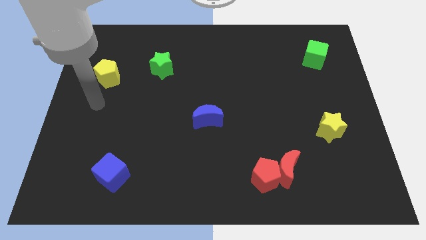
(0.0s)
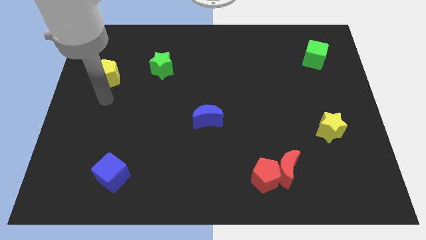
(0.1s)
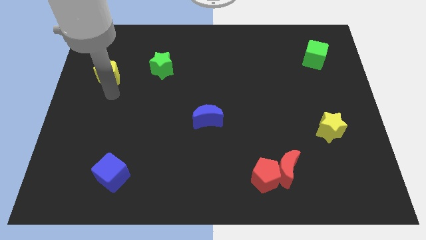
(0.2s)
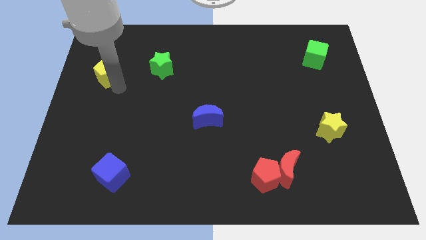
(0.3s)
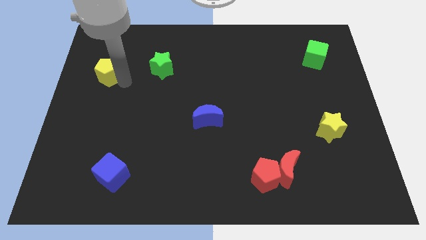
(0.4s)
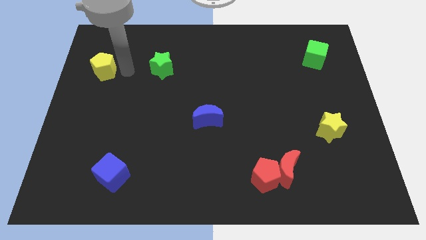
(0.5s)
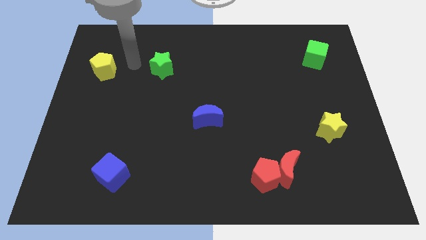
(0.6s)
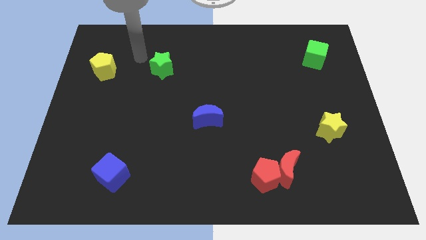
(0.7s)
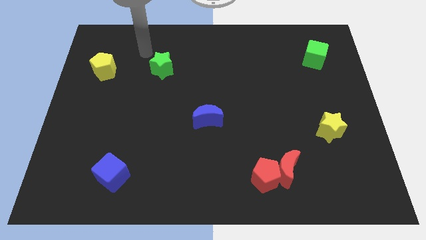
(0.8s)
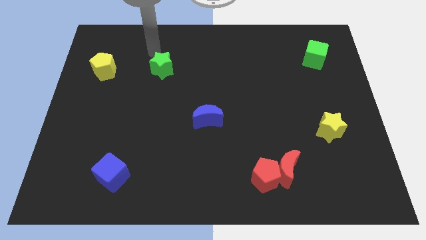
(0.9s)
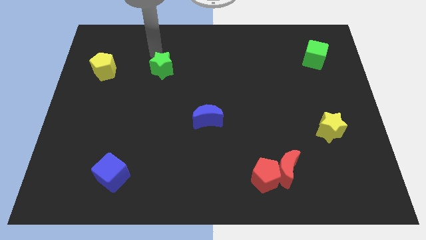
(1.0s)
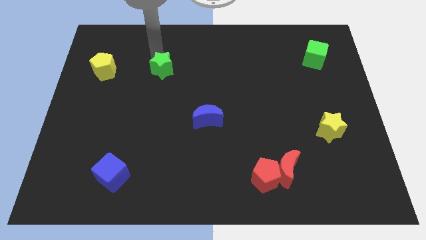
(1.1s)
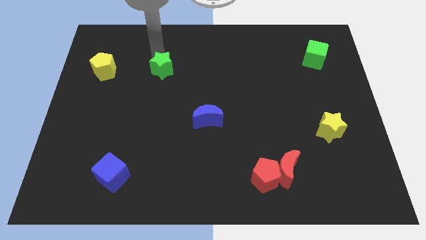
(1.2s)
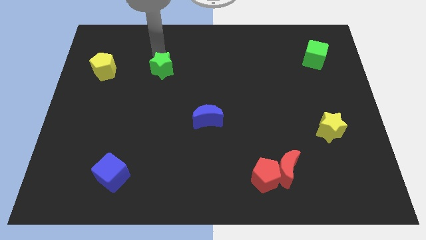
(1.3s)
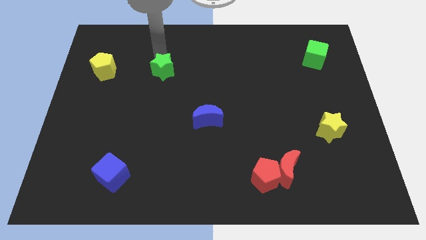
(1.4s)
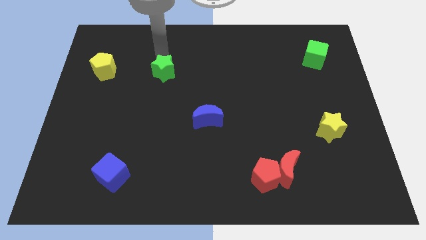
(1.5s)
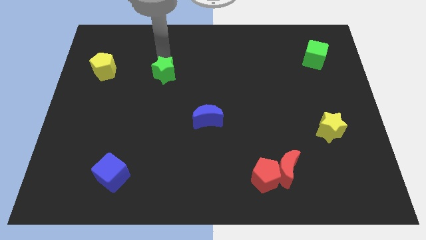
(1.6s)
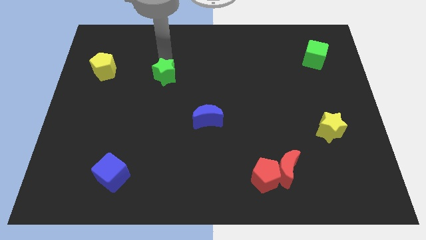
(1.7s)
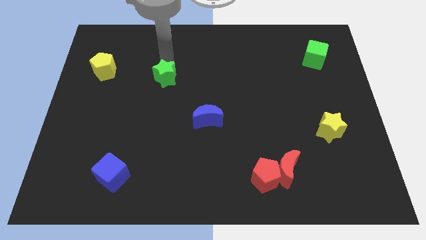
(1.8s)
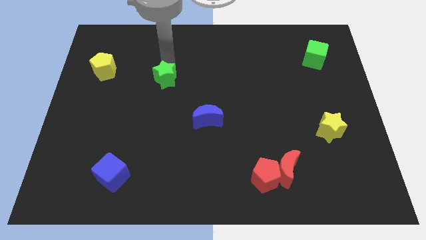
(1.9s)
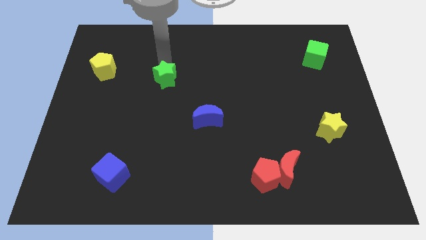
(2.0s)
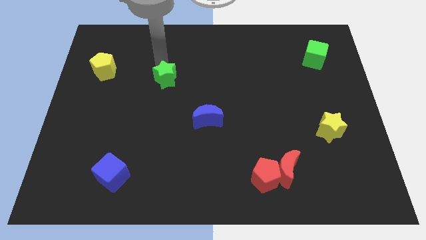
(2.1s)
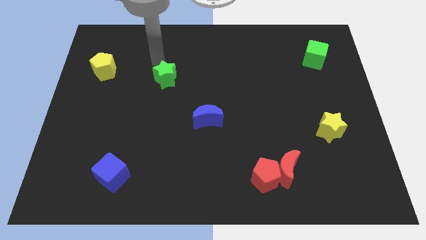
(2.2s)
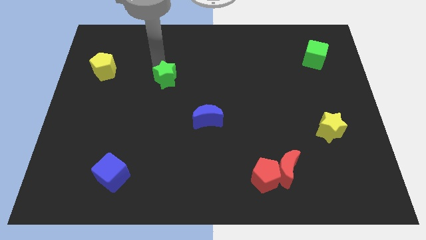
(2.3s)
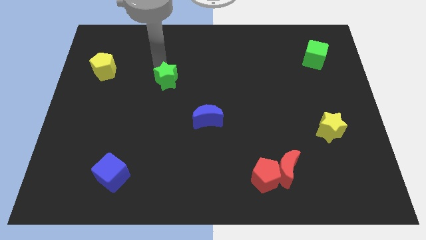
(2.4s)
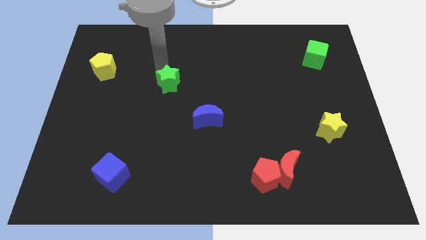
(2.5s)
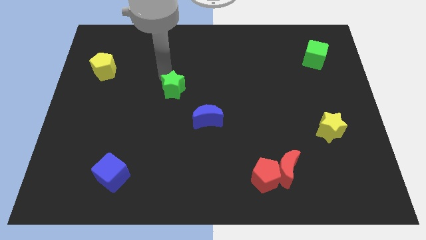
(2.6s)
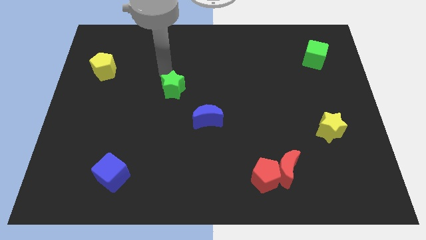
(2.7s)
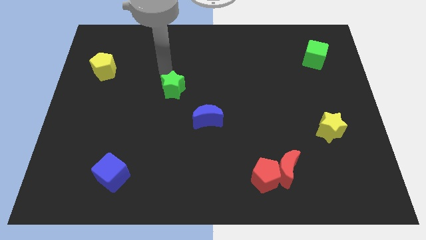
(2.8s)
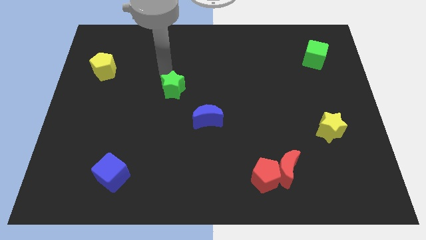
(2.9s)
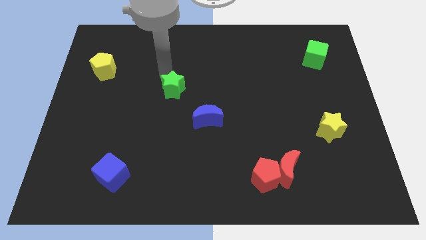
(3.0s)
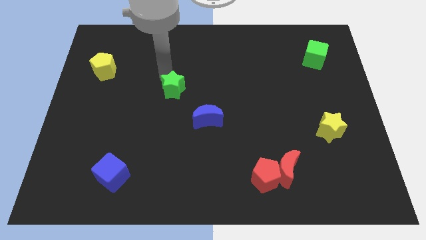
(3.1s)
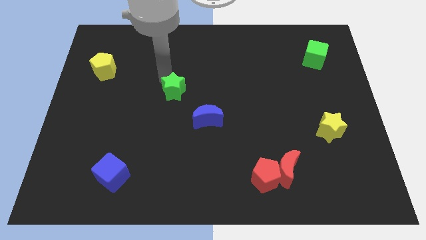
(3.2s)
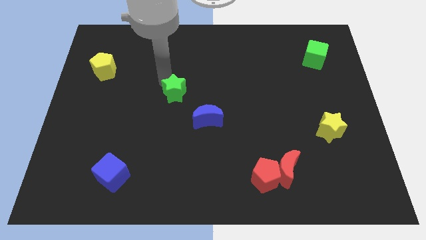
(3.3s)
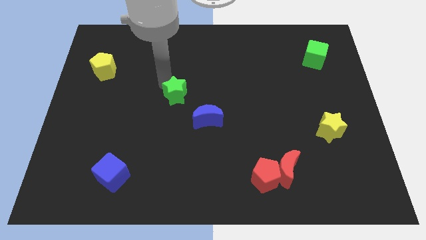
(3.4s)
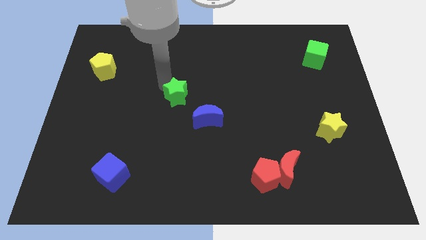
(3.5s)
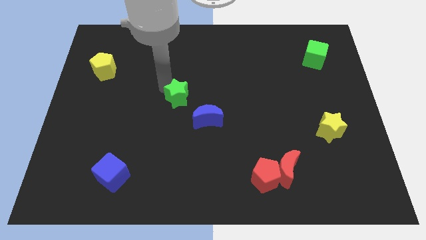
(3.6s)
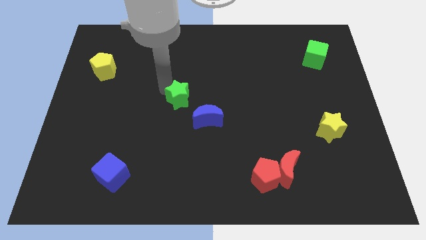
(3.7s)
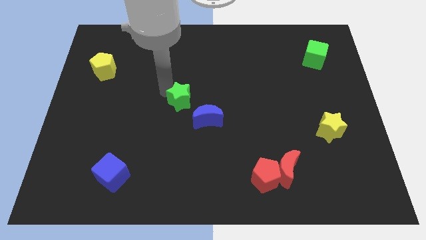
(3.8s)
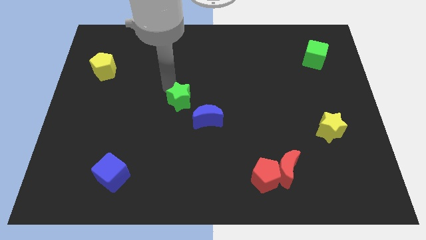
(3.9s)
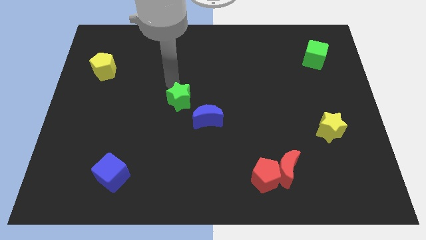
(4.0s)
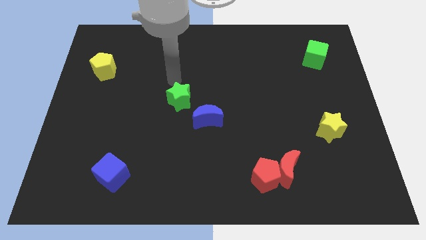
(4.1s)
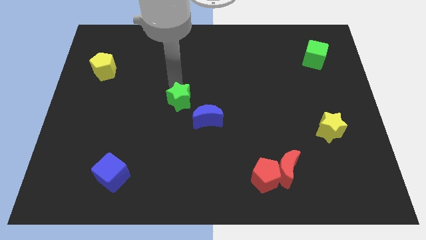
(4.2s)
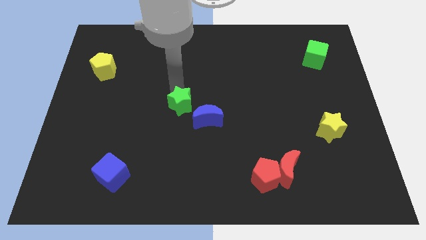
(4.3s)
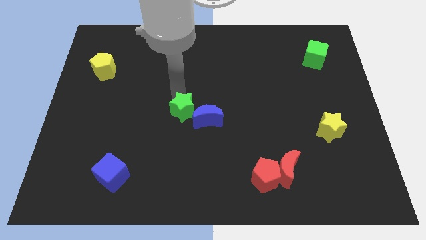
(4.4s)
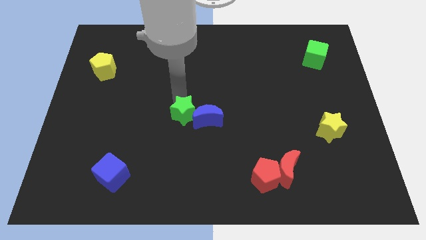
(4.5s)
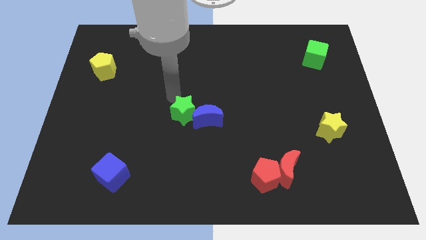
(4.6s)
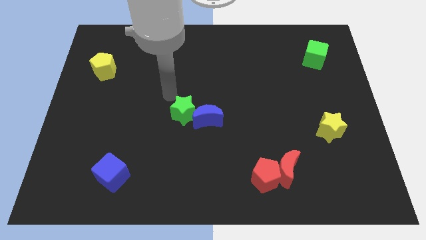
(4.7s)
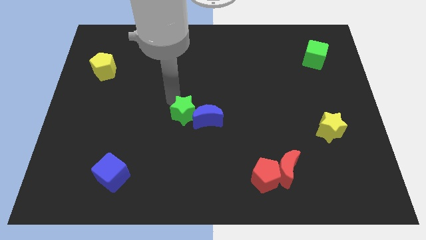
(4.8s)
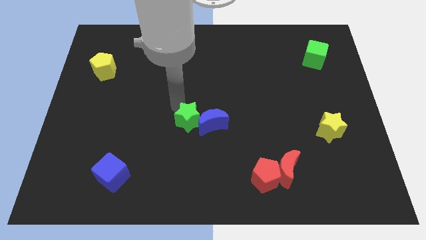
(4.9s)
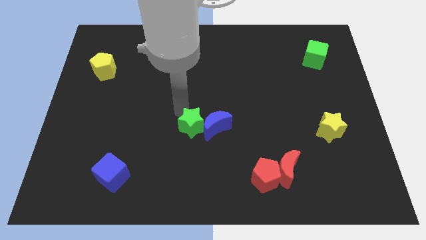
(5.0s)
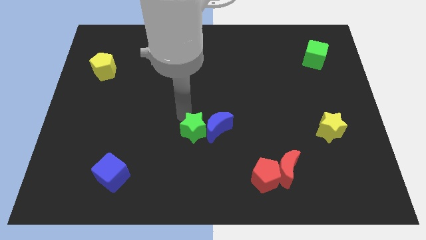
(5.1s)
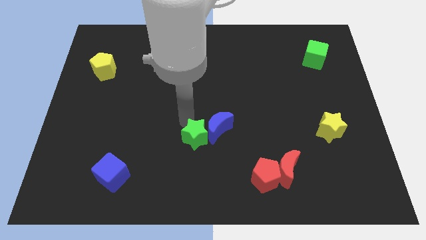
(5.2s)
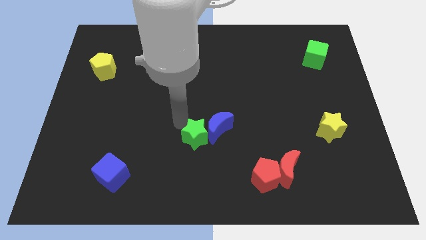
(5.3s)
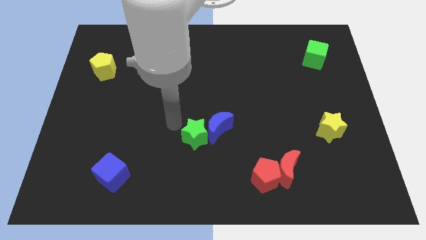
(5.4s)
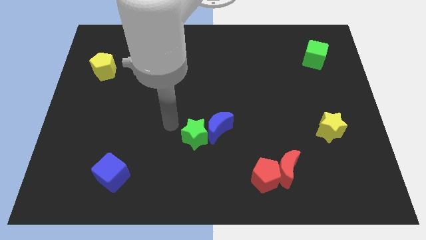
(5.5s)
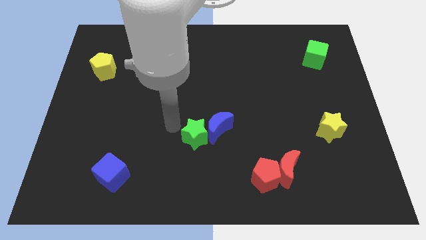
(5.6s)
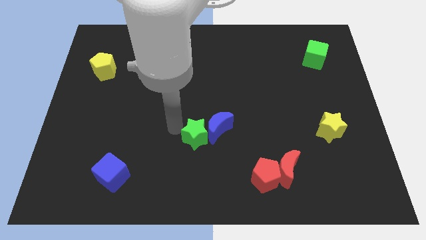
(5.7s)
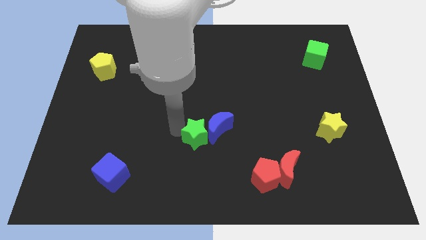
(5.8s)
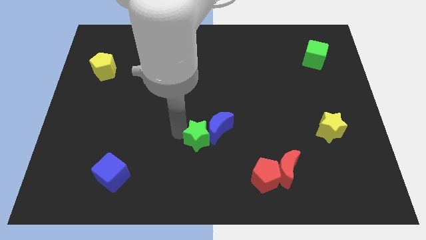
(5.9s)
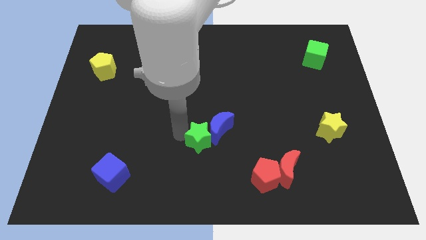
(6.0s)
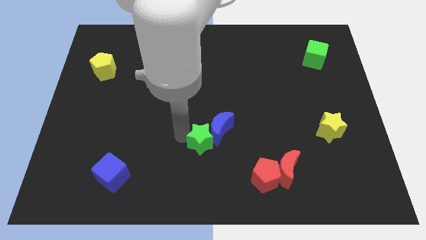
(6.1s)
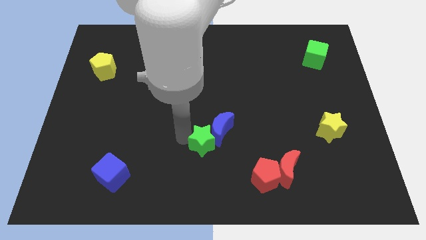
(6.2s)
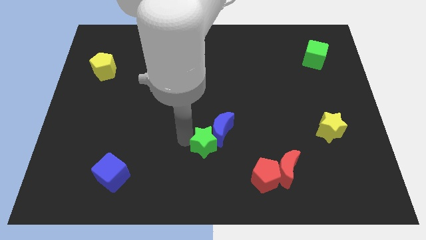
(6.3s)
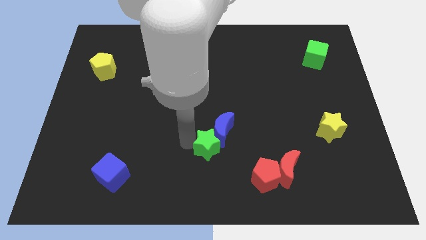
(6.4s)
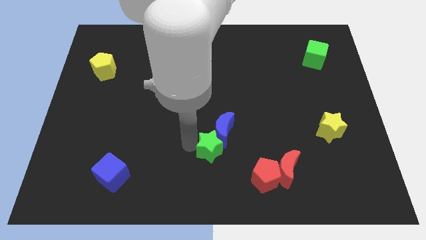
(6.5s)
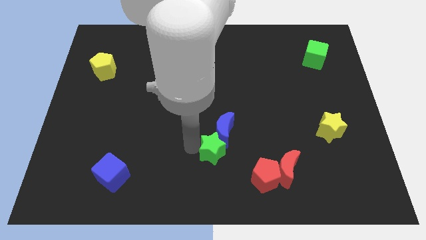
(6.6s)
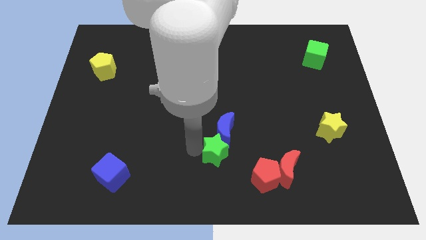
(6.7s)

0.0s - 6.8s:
move the green star to the top left side of the red pentagon

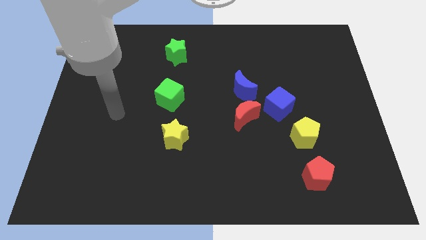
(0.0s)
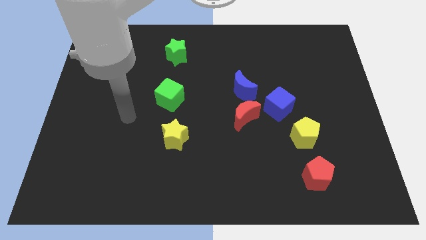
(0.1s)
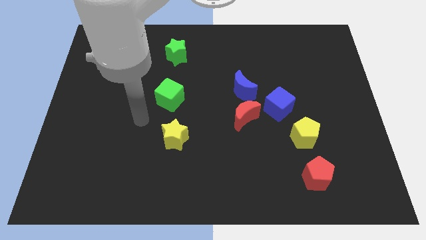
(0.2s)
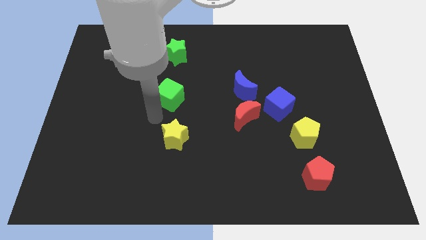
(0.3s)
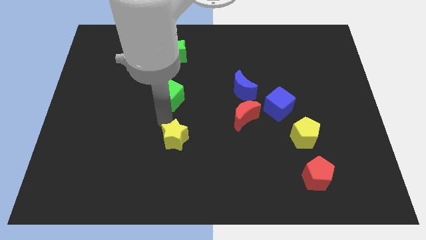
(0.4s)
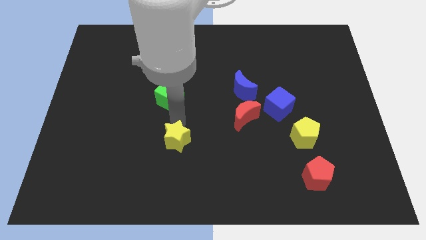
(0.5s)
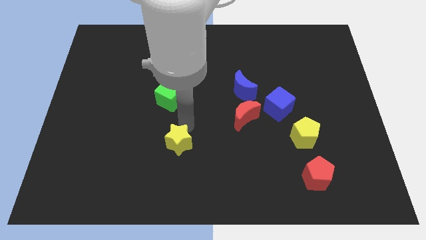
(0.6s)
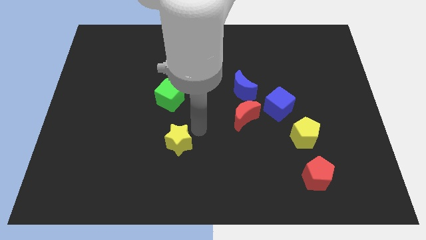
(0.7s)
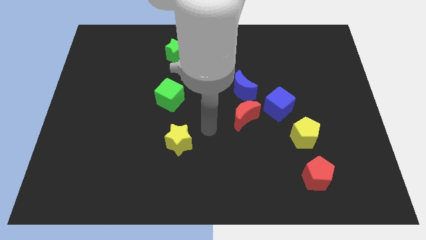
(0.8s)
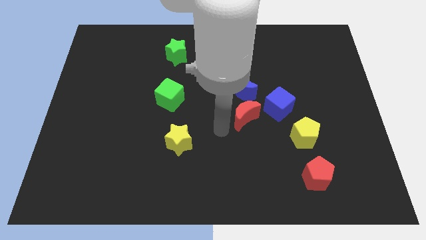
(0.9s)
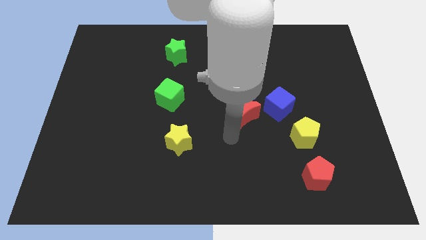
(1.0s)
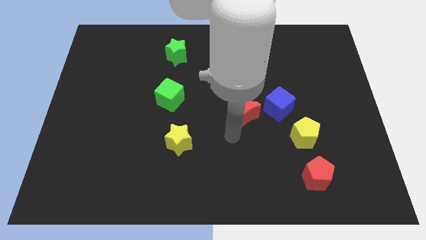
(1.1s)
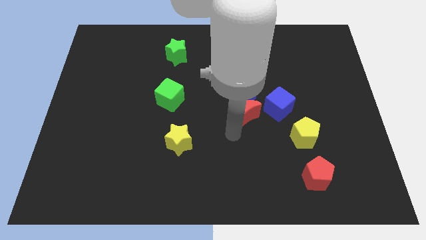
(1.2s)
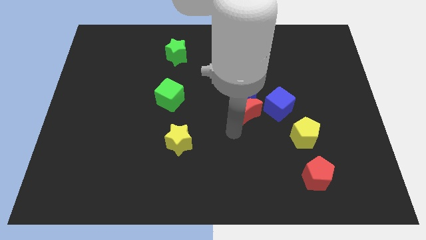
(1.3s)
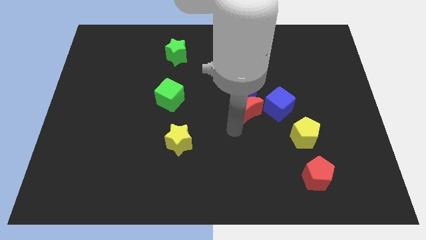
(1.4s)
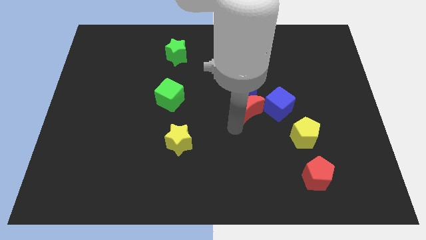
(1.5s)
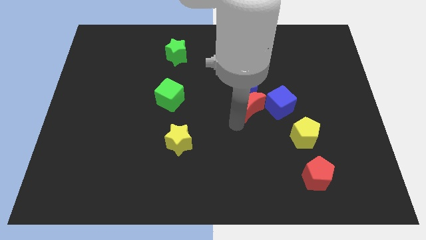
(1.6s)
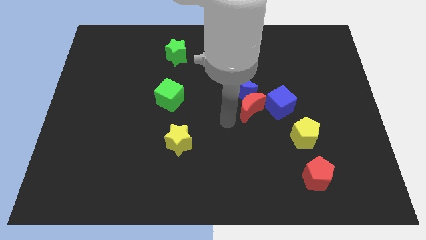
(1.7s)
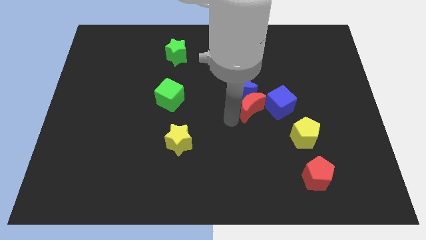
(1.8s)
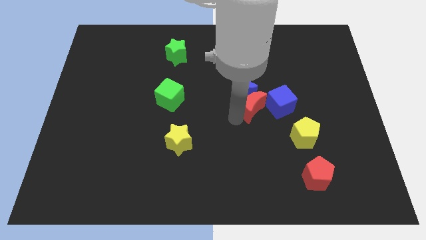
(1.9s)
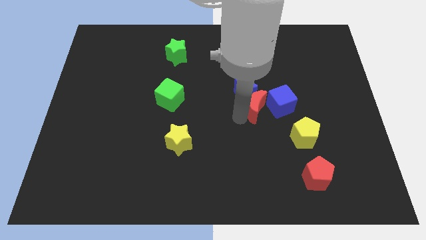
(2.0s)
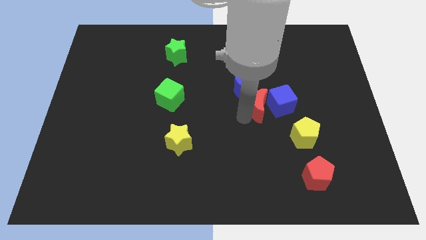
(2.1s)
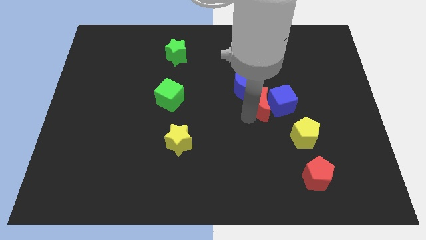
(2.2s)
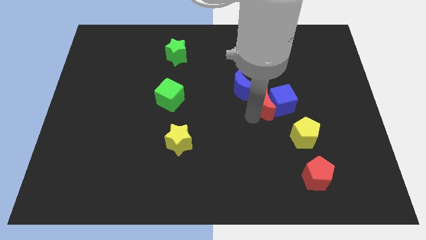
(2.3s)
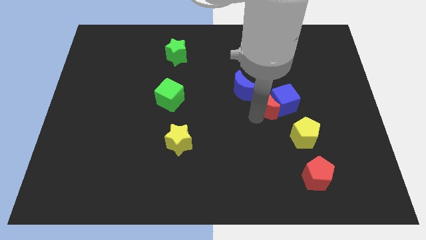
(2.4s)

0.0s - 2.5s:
slide the red moon to the right side of the blue moon
